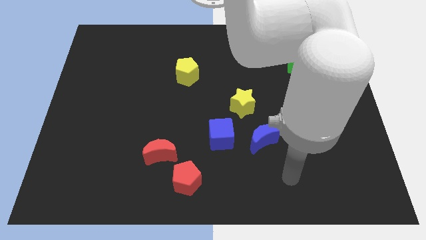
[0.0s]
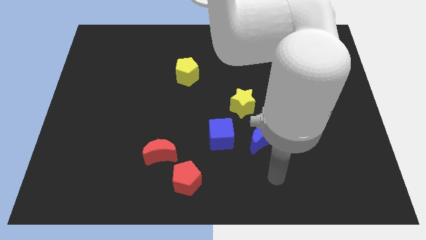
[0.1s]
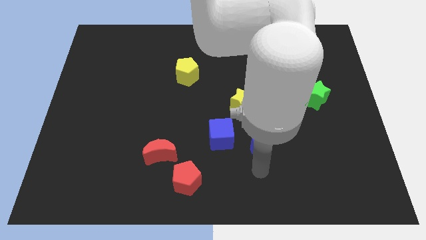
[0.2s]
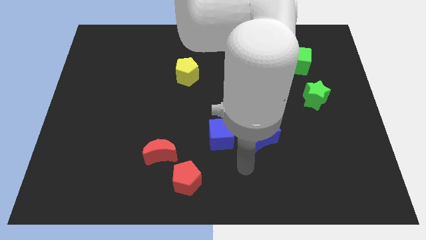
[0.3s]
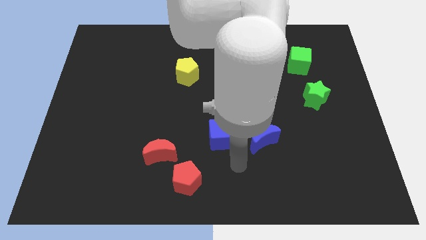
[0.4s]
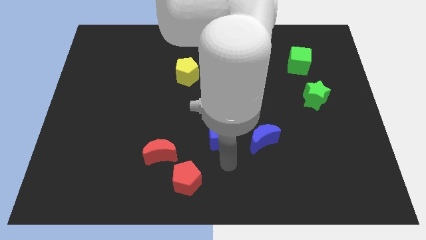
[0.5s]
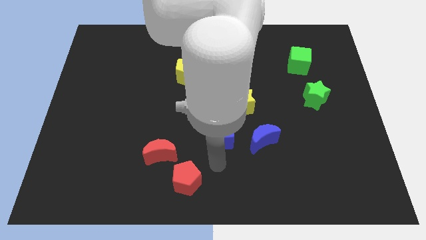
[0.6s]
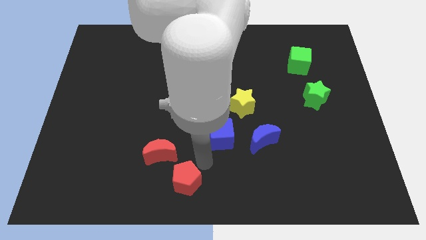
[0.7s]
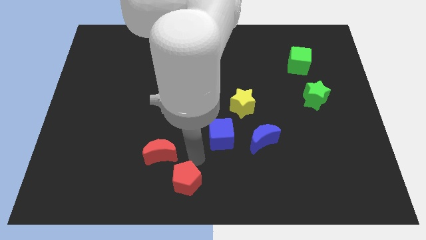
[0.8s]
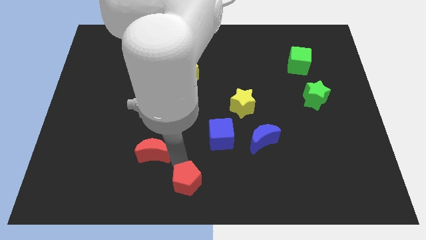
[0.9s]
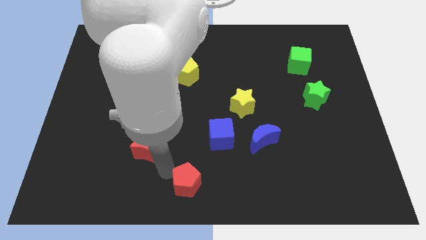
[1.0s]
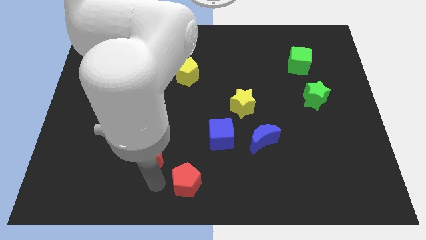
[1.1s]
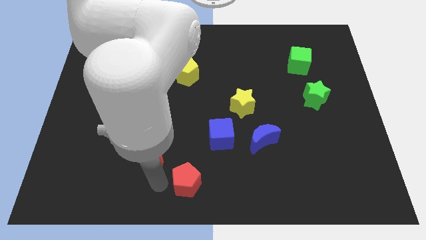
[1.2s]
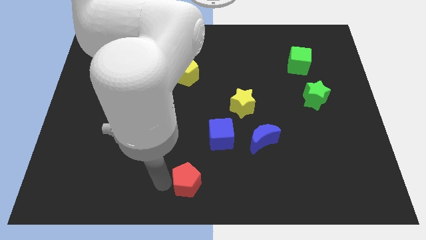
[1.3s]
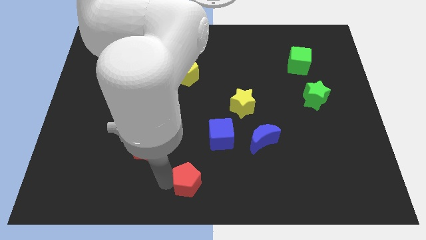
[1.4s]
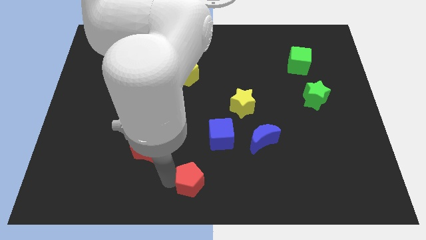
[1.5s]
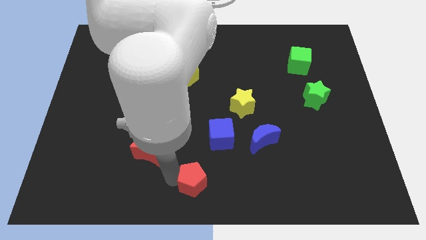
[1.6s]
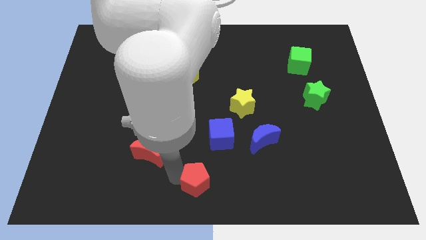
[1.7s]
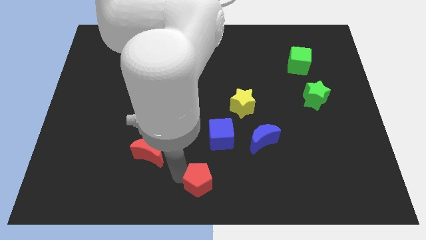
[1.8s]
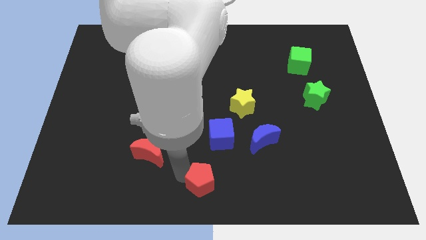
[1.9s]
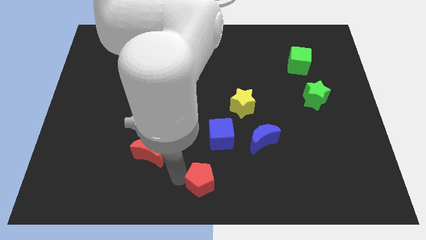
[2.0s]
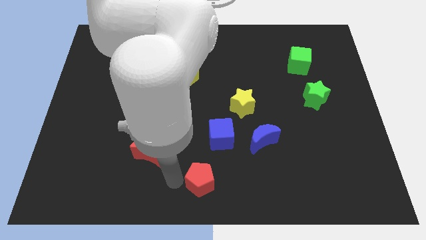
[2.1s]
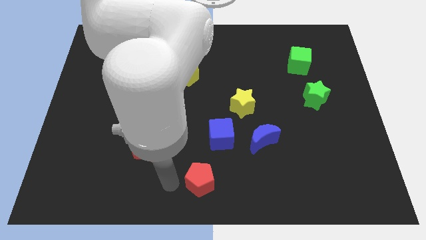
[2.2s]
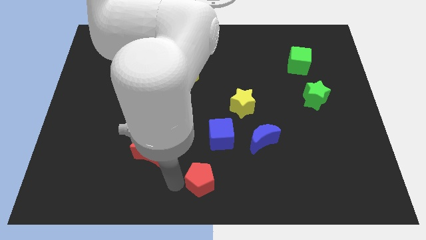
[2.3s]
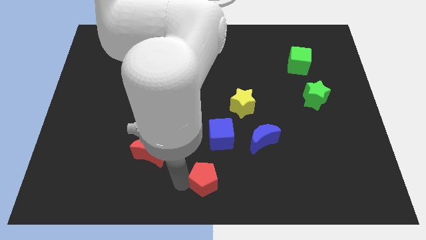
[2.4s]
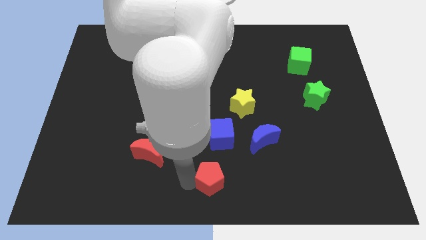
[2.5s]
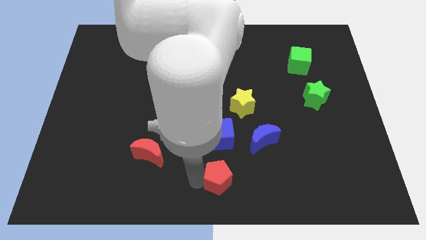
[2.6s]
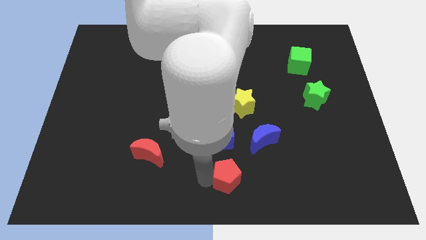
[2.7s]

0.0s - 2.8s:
push the red pentagon slightly right

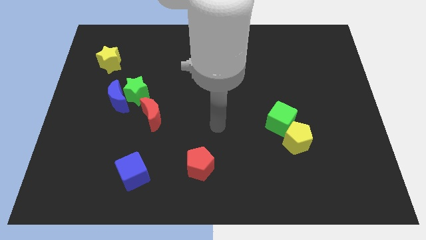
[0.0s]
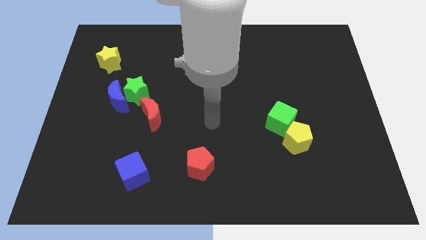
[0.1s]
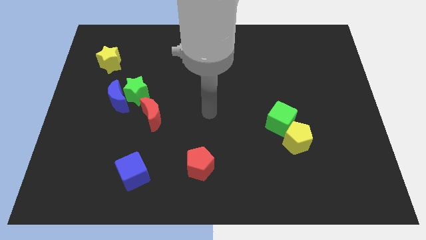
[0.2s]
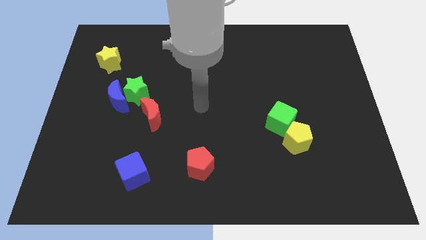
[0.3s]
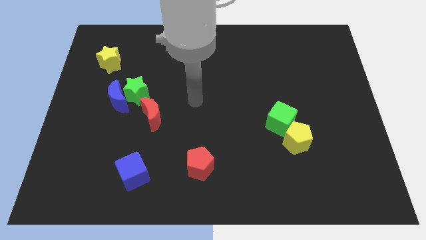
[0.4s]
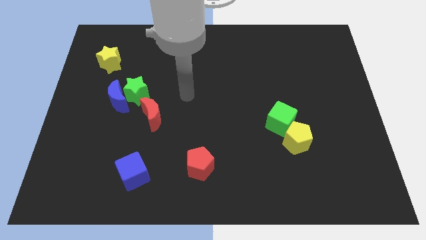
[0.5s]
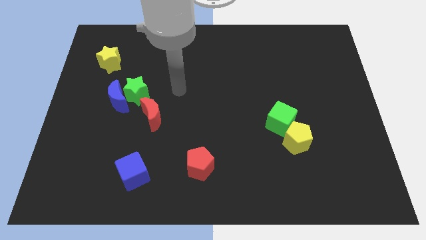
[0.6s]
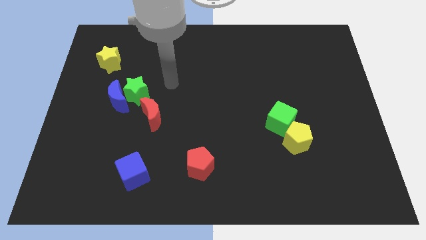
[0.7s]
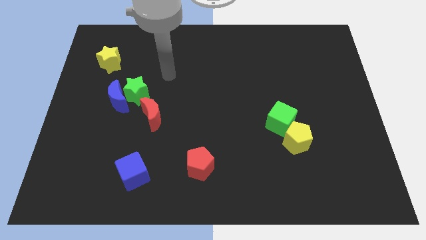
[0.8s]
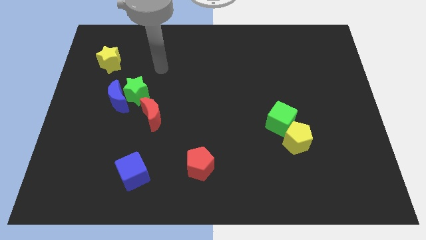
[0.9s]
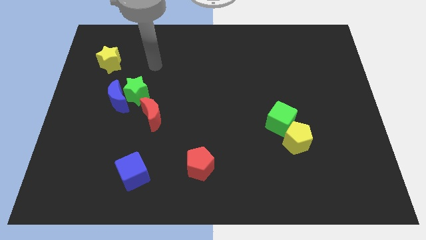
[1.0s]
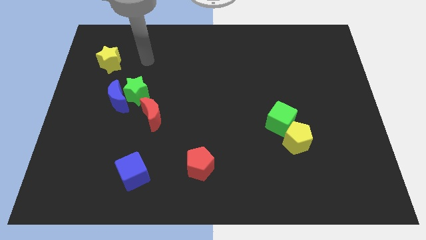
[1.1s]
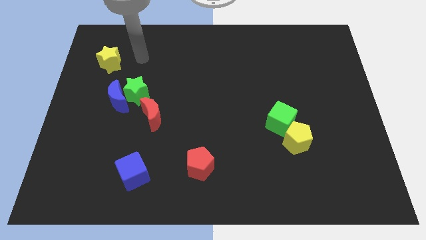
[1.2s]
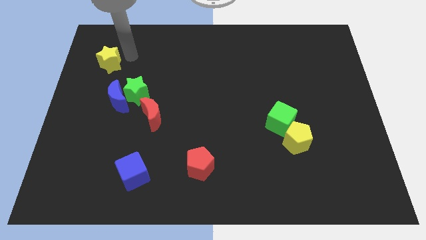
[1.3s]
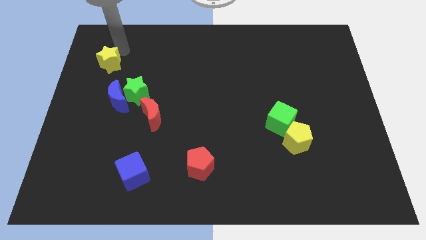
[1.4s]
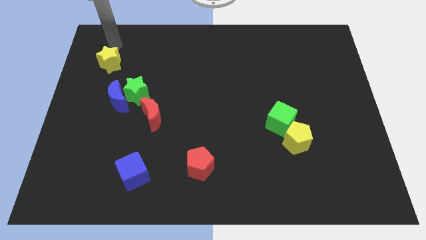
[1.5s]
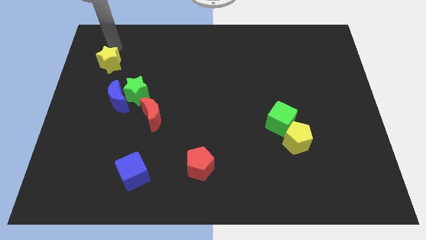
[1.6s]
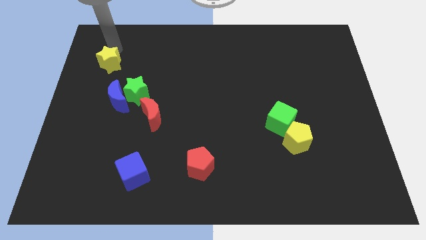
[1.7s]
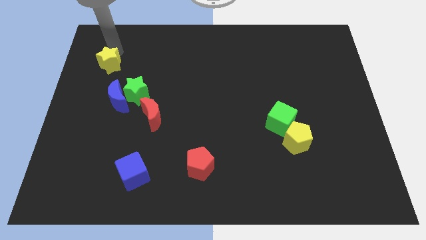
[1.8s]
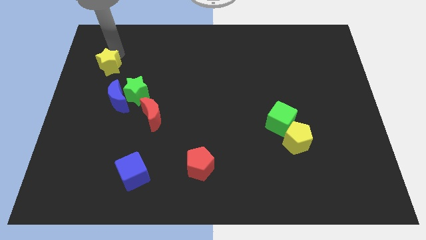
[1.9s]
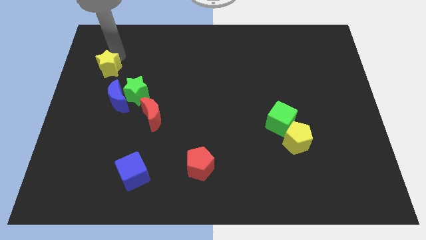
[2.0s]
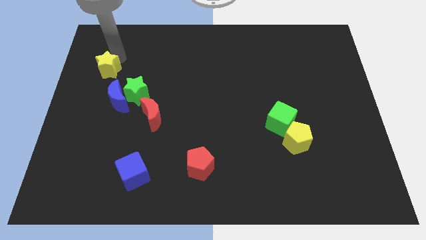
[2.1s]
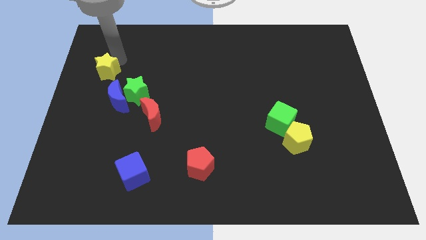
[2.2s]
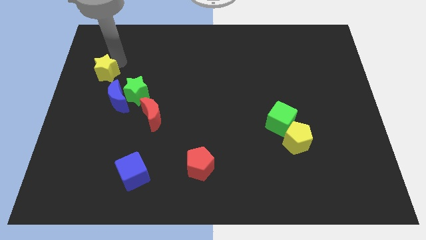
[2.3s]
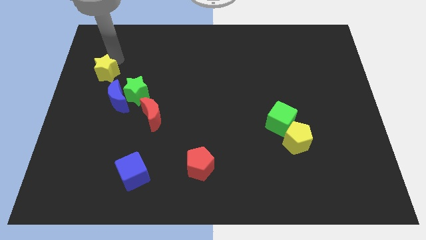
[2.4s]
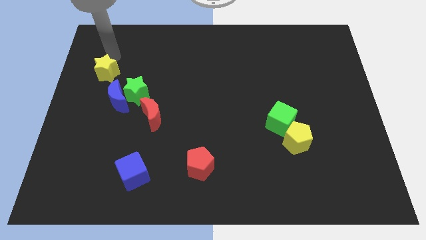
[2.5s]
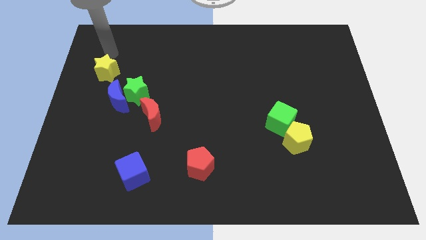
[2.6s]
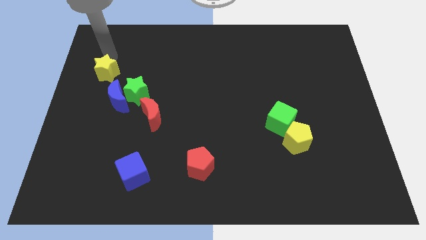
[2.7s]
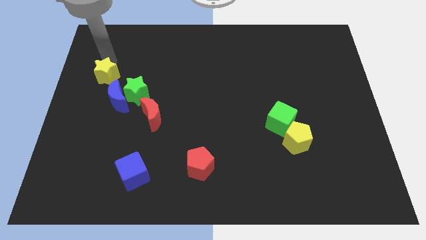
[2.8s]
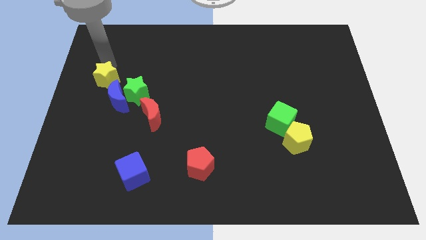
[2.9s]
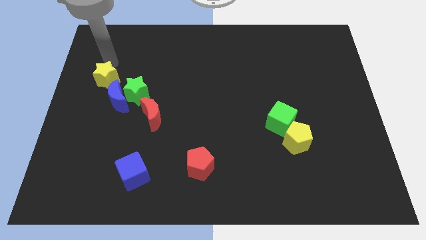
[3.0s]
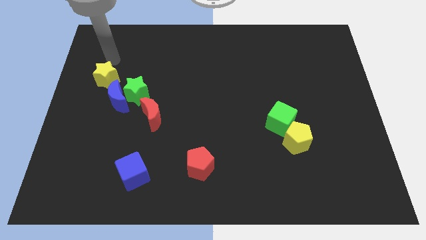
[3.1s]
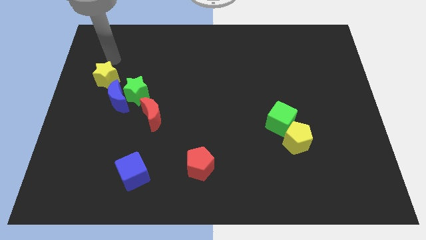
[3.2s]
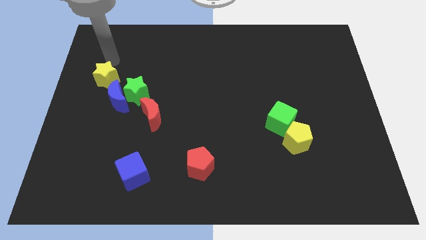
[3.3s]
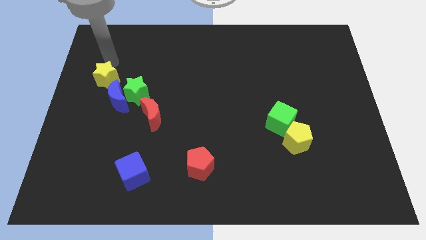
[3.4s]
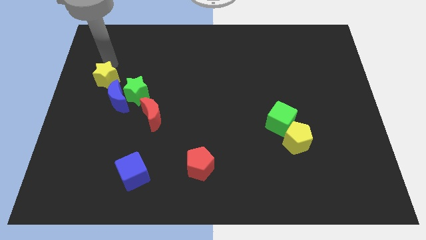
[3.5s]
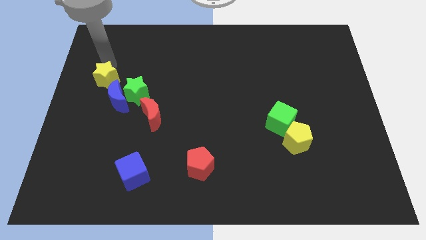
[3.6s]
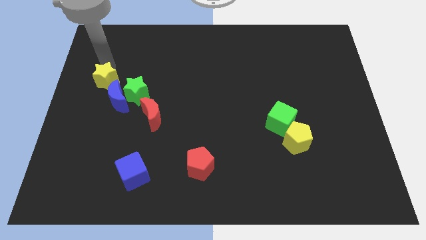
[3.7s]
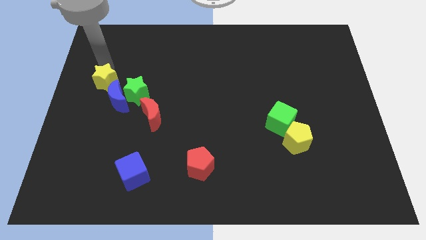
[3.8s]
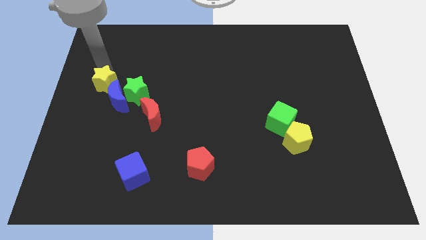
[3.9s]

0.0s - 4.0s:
slide the yellow star slightly downwards

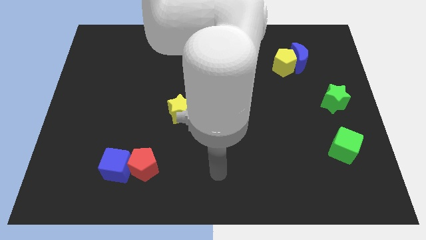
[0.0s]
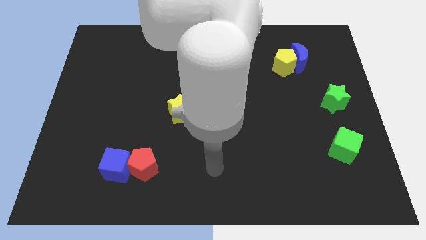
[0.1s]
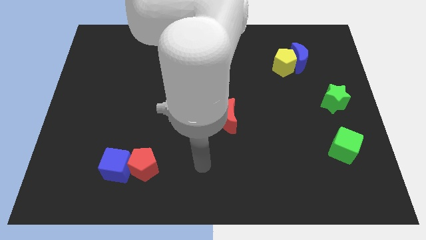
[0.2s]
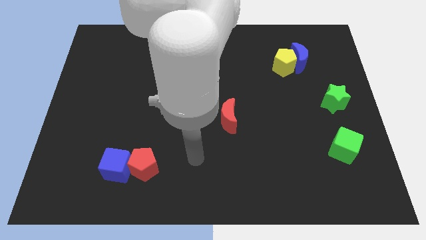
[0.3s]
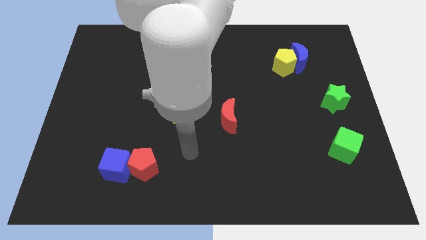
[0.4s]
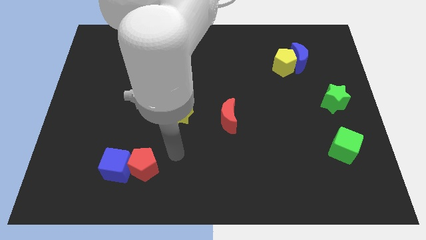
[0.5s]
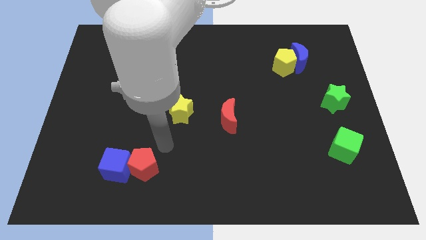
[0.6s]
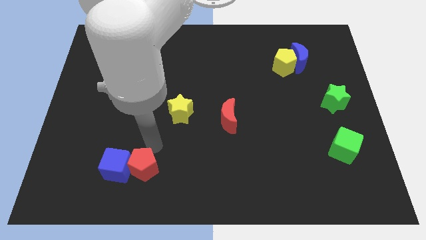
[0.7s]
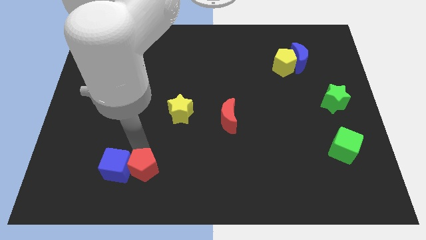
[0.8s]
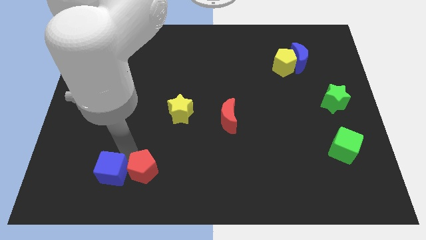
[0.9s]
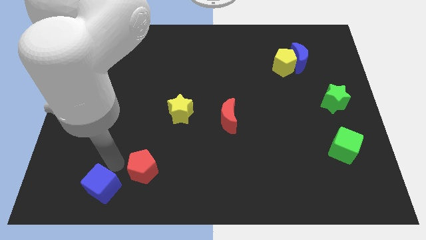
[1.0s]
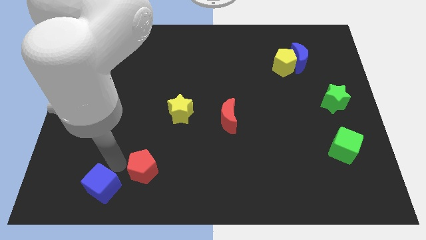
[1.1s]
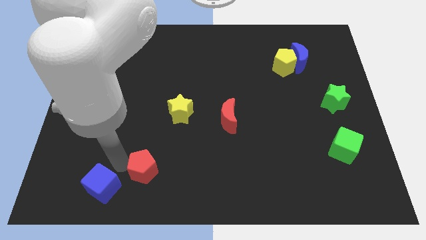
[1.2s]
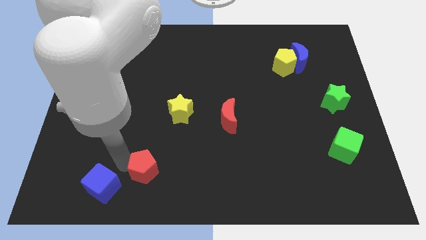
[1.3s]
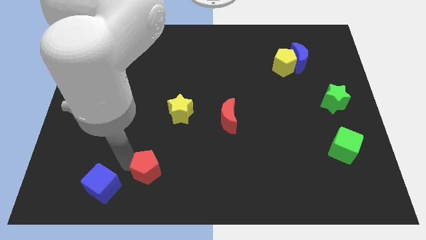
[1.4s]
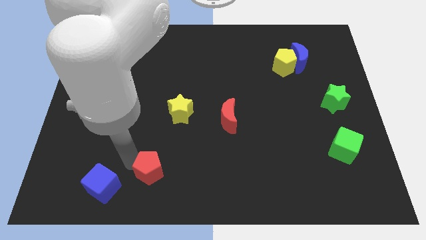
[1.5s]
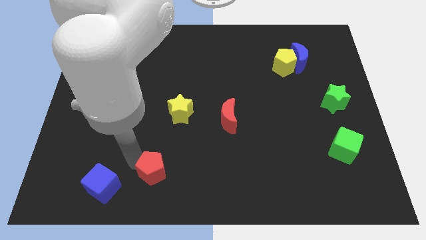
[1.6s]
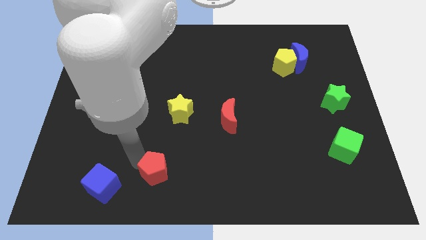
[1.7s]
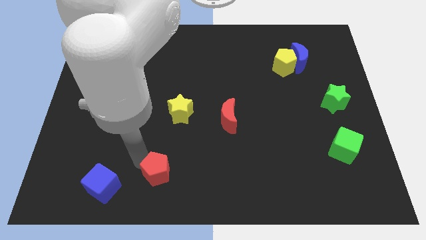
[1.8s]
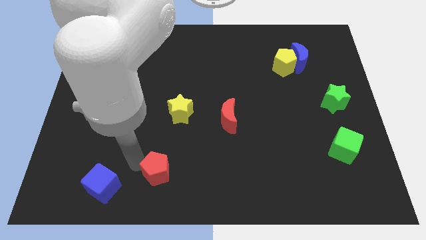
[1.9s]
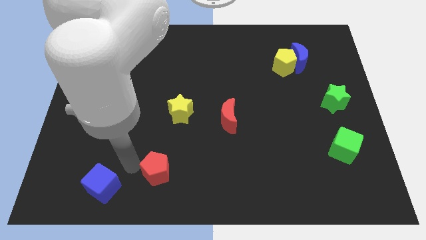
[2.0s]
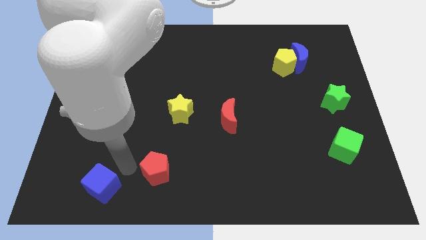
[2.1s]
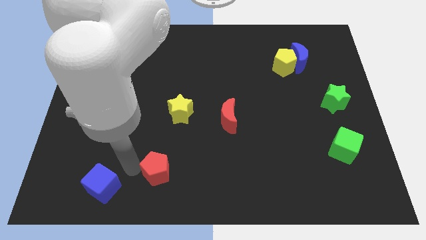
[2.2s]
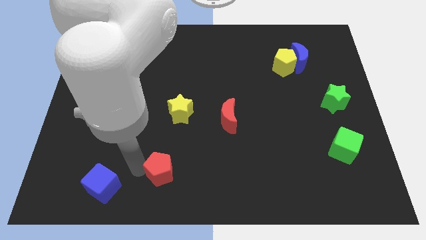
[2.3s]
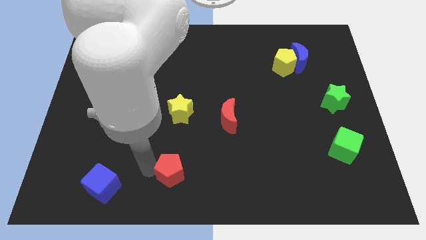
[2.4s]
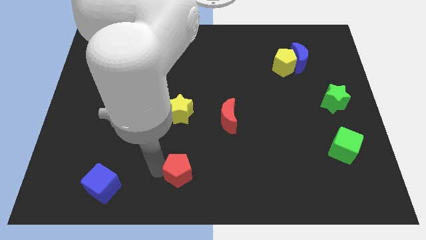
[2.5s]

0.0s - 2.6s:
slightly slide the red pentagon to the right
